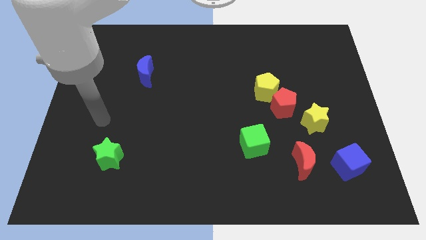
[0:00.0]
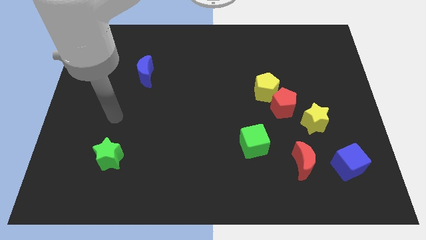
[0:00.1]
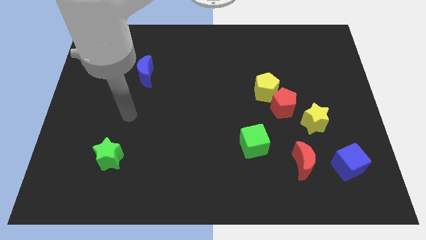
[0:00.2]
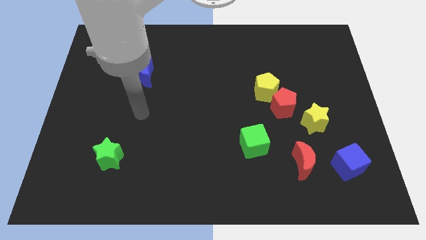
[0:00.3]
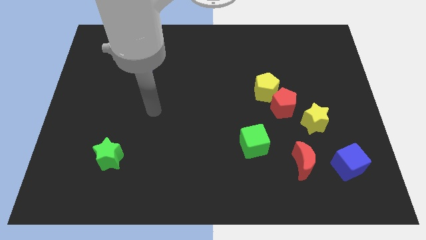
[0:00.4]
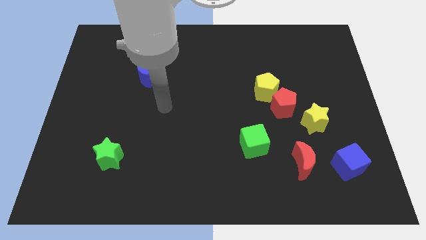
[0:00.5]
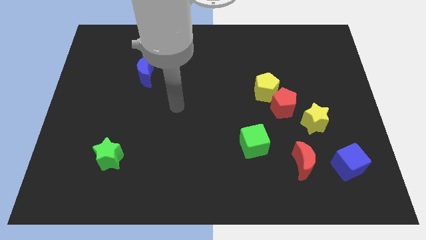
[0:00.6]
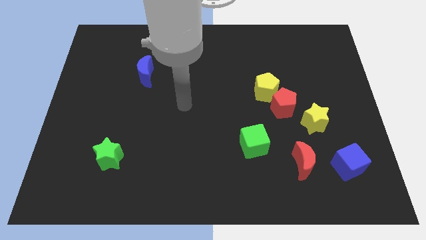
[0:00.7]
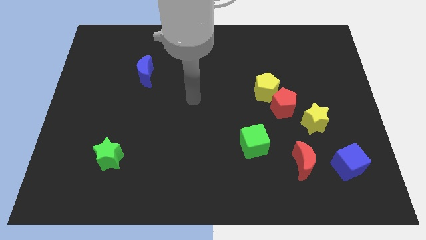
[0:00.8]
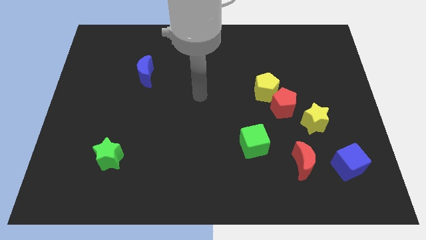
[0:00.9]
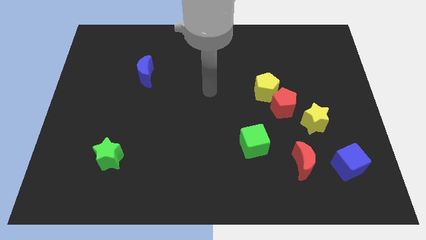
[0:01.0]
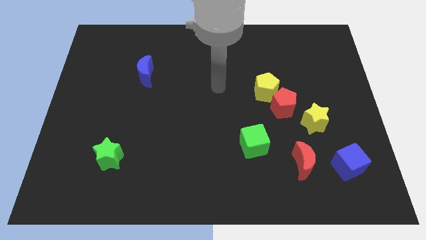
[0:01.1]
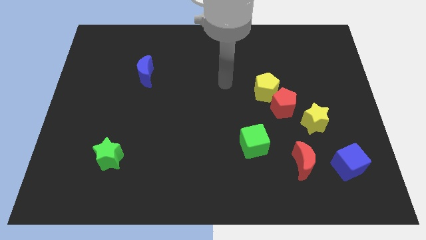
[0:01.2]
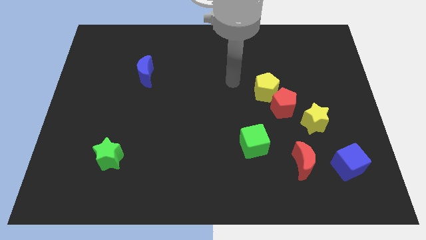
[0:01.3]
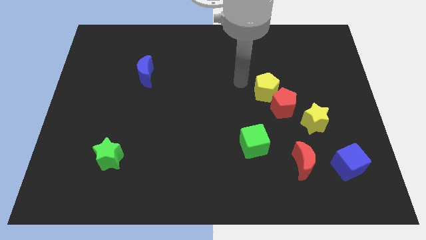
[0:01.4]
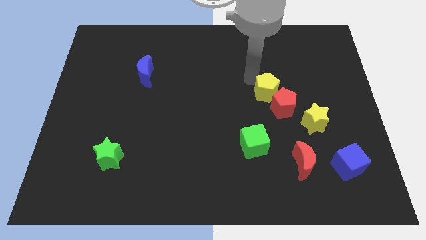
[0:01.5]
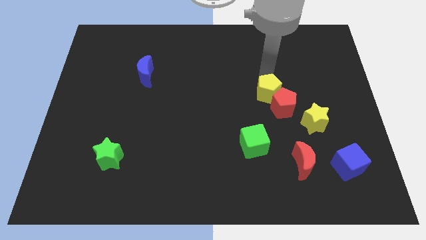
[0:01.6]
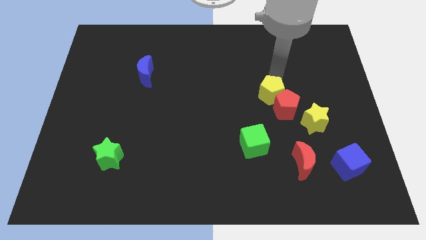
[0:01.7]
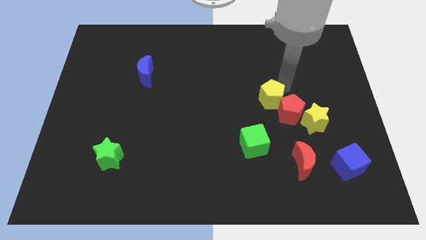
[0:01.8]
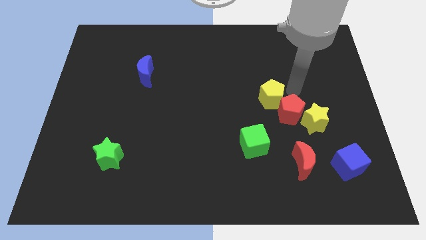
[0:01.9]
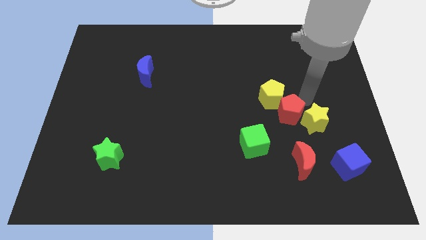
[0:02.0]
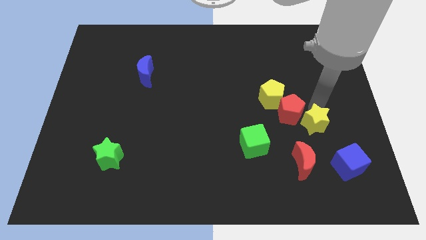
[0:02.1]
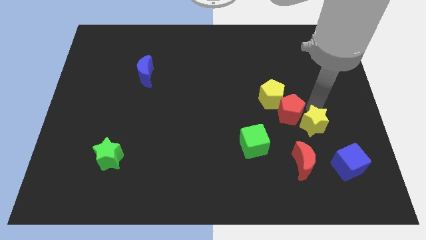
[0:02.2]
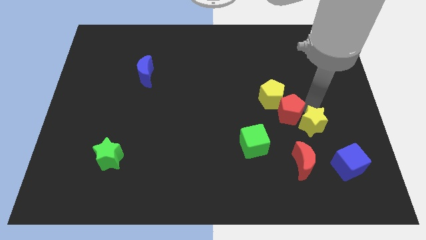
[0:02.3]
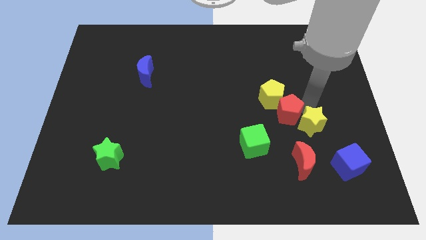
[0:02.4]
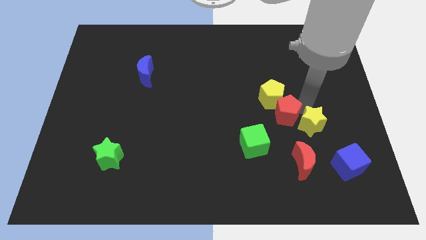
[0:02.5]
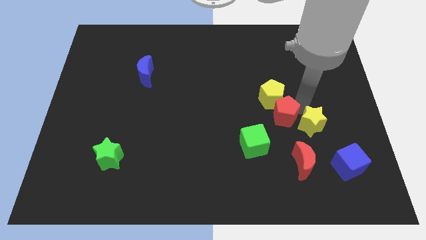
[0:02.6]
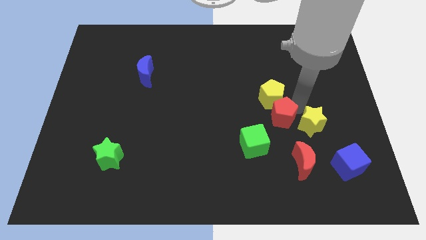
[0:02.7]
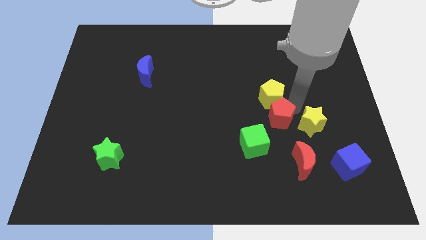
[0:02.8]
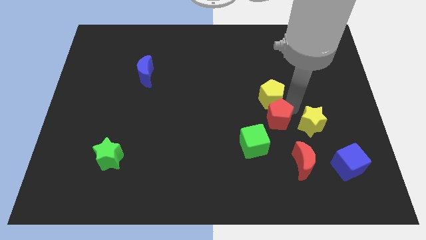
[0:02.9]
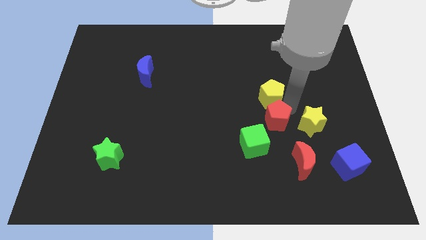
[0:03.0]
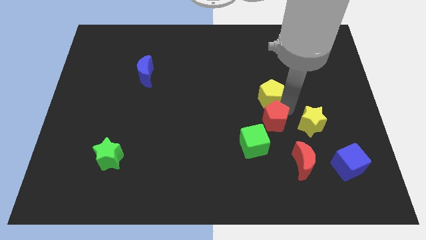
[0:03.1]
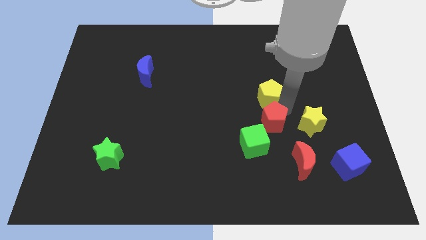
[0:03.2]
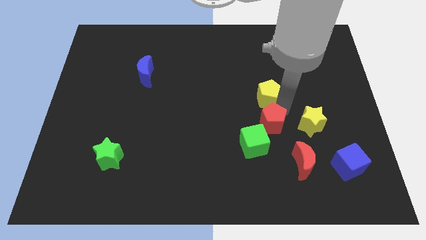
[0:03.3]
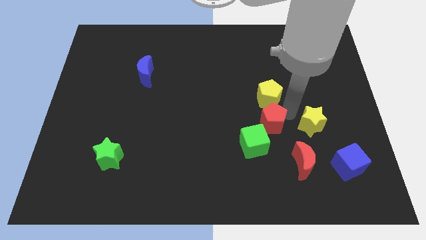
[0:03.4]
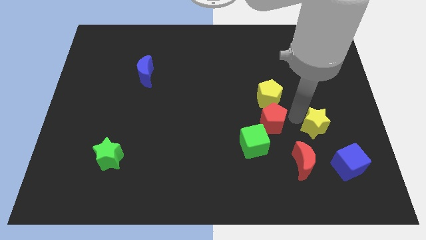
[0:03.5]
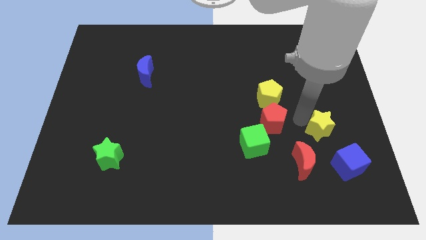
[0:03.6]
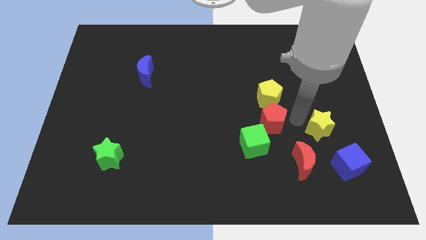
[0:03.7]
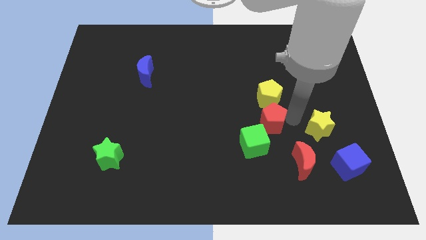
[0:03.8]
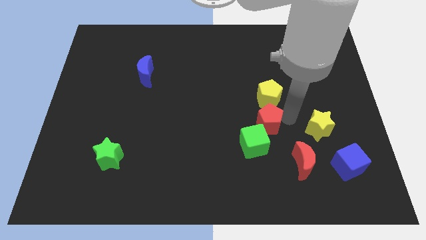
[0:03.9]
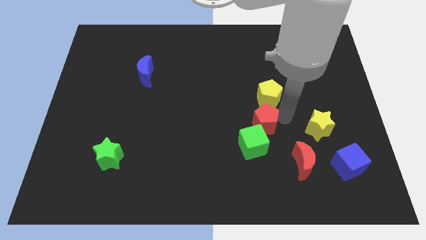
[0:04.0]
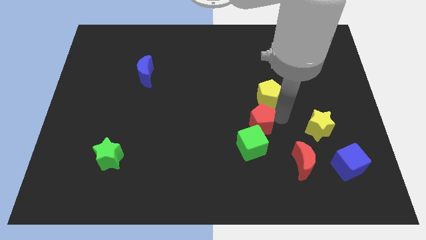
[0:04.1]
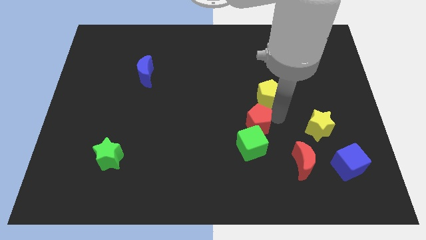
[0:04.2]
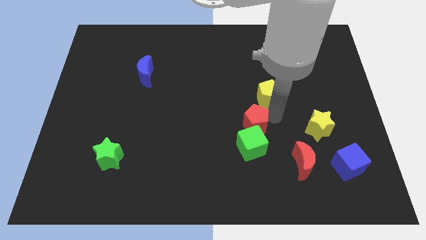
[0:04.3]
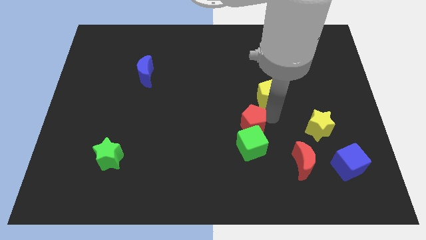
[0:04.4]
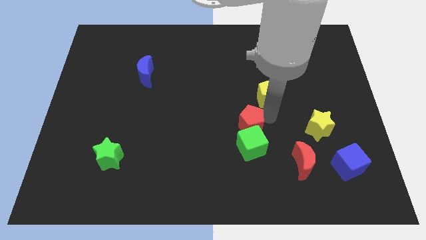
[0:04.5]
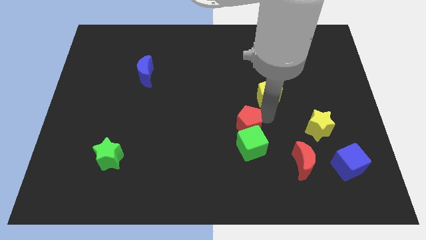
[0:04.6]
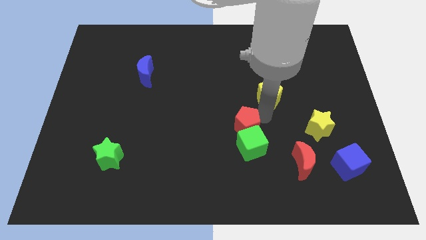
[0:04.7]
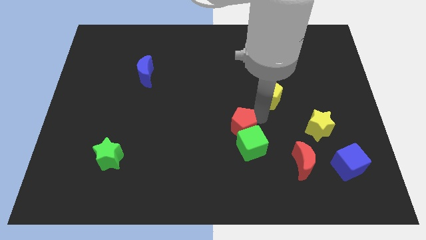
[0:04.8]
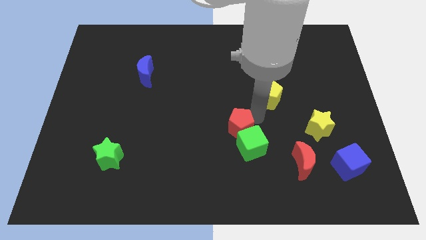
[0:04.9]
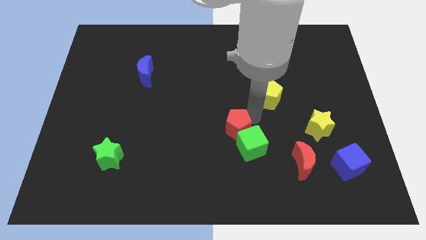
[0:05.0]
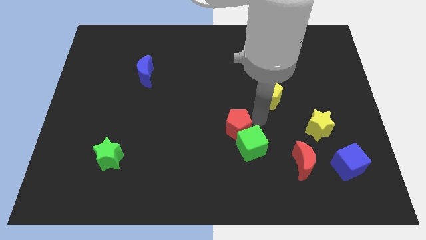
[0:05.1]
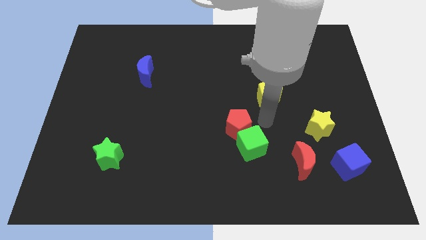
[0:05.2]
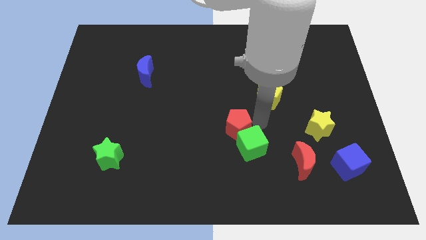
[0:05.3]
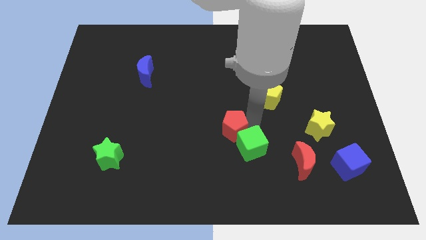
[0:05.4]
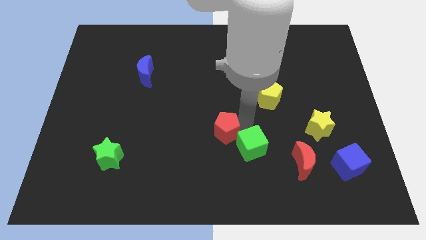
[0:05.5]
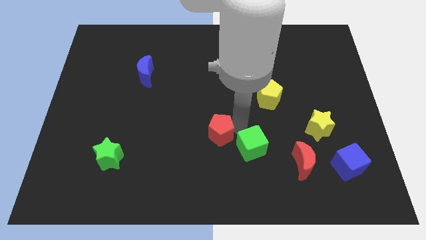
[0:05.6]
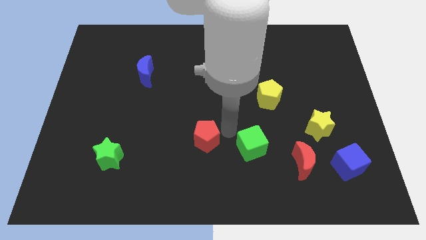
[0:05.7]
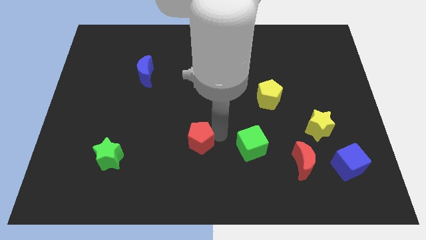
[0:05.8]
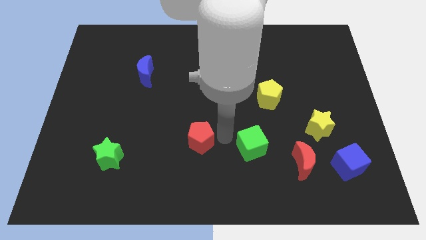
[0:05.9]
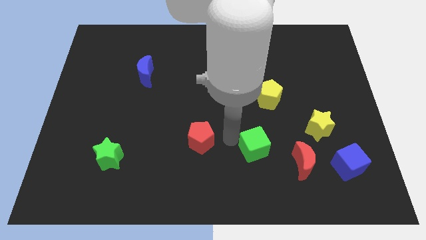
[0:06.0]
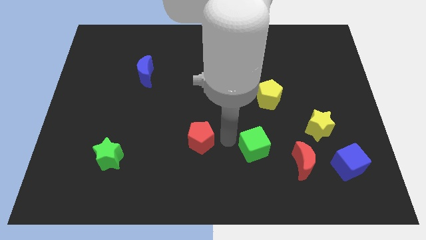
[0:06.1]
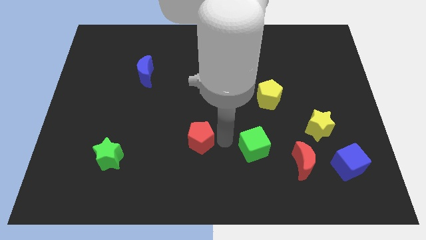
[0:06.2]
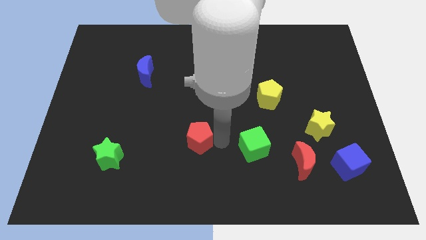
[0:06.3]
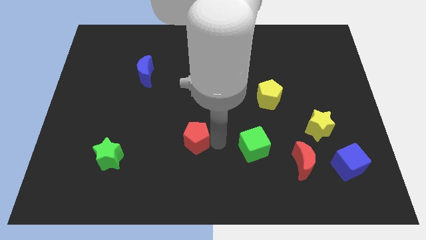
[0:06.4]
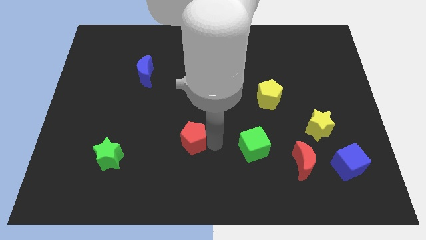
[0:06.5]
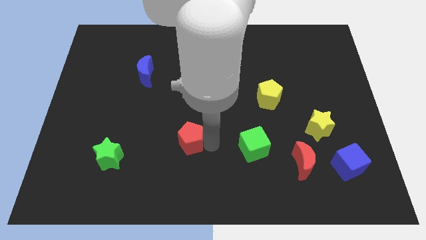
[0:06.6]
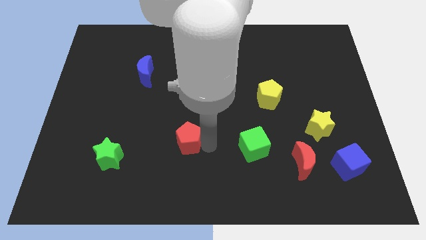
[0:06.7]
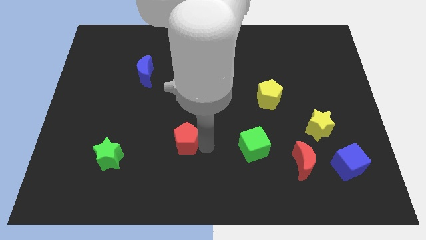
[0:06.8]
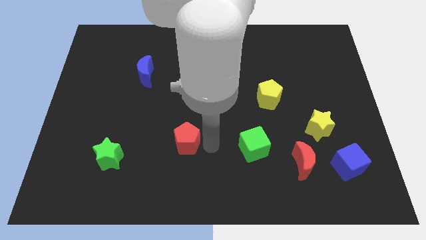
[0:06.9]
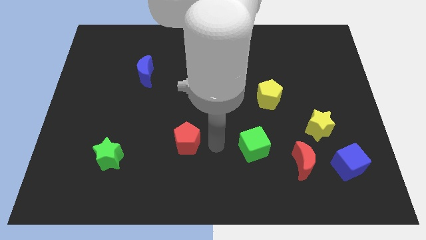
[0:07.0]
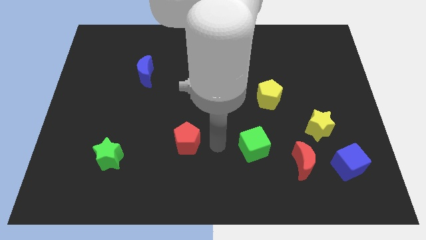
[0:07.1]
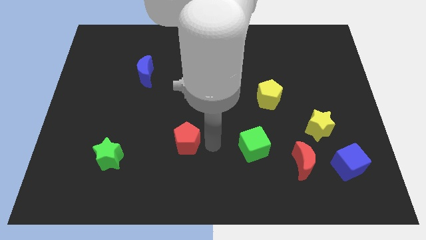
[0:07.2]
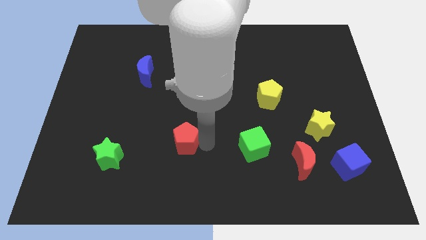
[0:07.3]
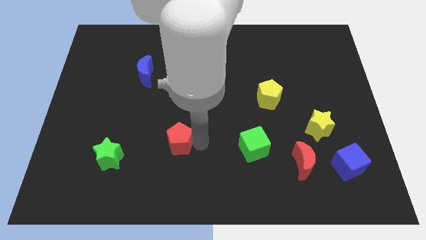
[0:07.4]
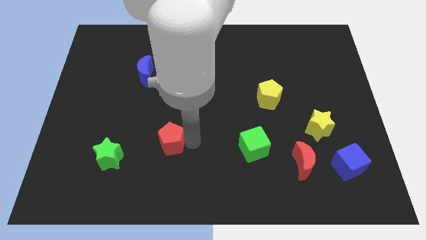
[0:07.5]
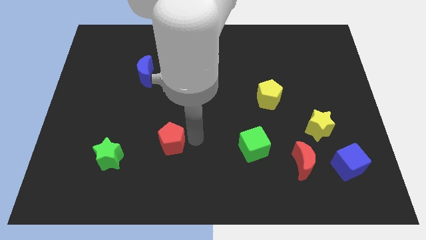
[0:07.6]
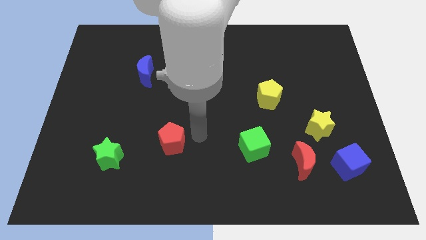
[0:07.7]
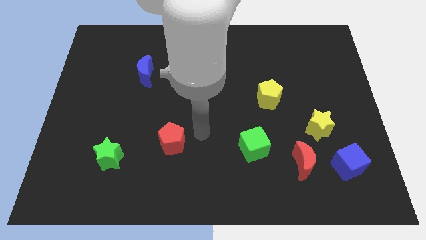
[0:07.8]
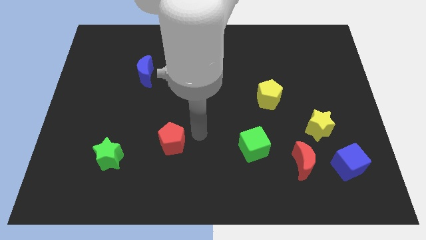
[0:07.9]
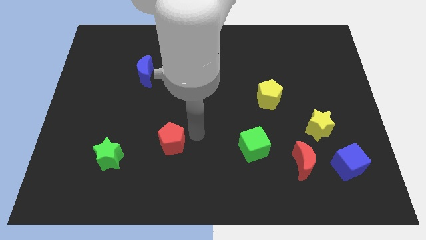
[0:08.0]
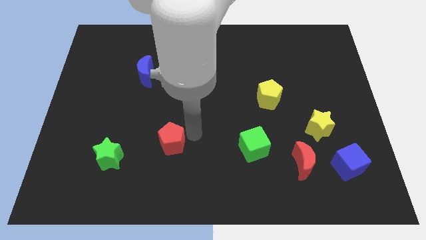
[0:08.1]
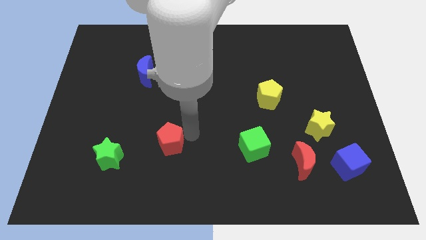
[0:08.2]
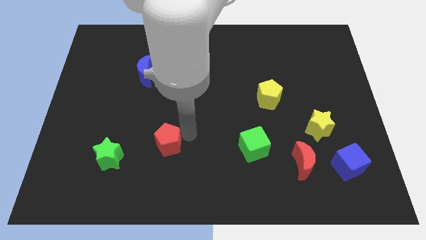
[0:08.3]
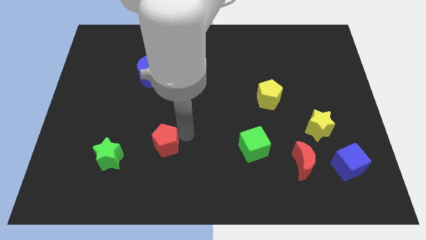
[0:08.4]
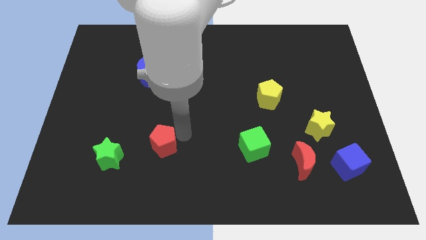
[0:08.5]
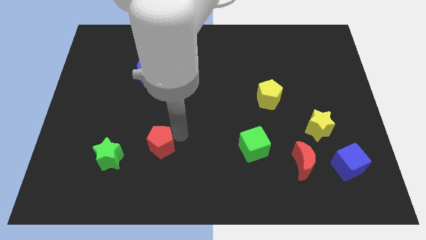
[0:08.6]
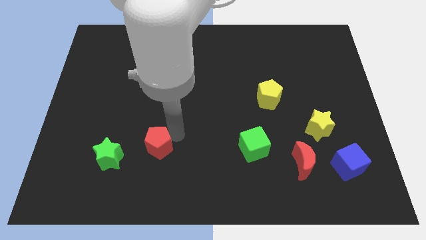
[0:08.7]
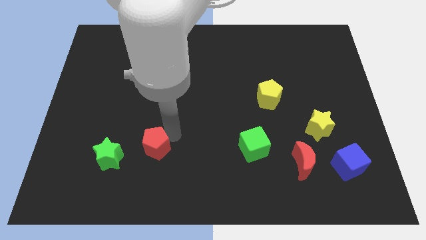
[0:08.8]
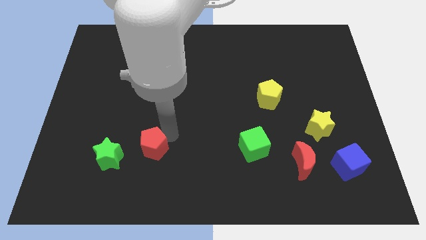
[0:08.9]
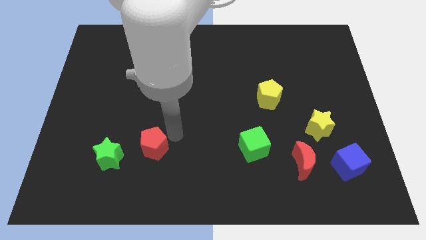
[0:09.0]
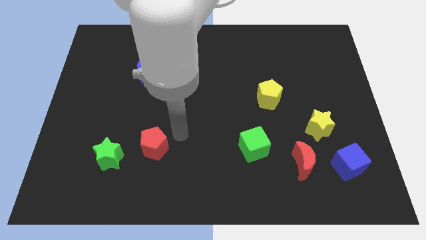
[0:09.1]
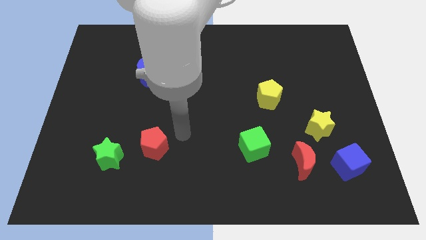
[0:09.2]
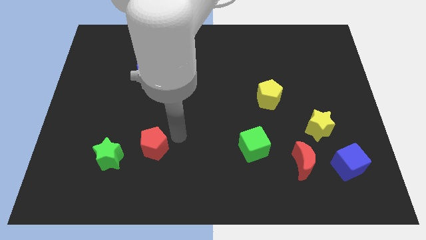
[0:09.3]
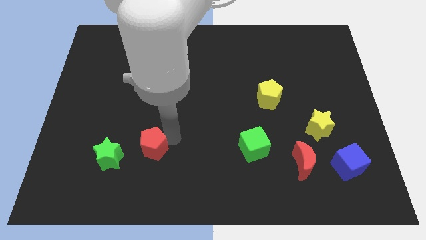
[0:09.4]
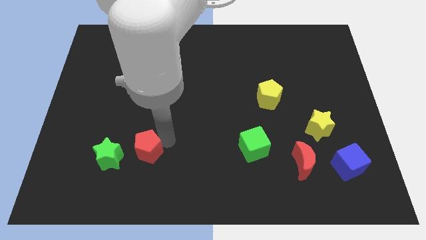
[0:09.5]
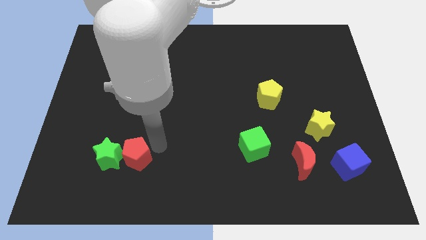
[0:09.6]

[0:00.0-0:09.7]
move the red pentagon close to the green star
